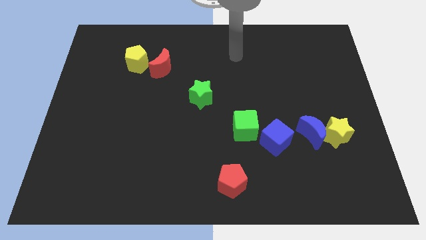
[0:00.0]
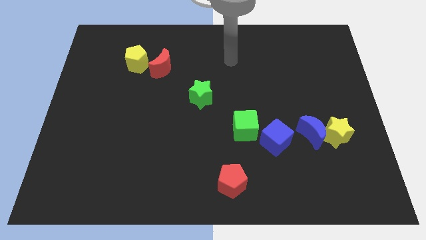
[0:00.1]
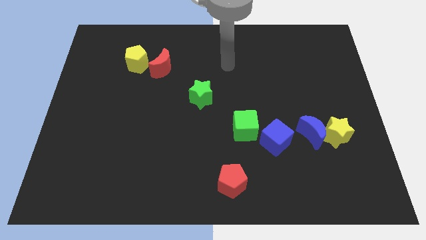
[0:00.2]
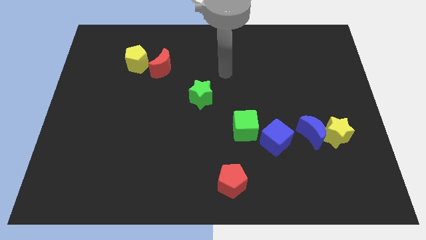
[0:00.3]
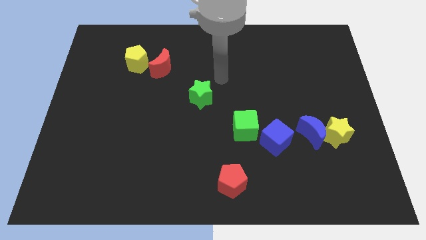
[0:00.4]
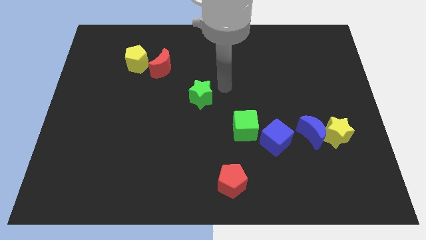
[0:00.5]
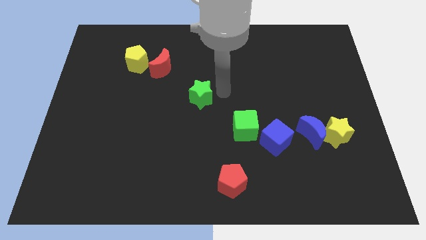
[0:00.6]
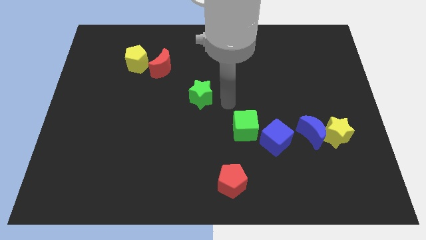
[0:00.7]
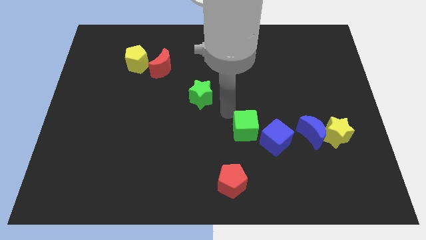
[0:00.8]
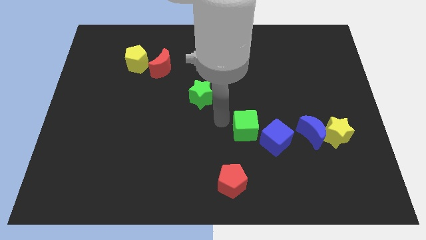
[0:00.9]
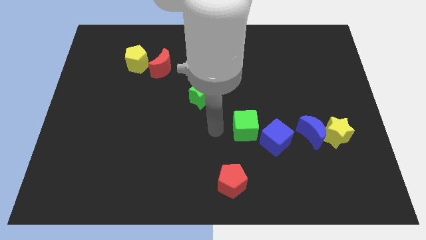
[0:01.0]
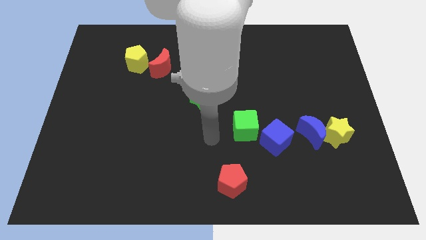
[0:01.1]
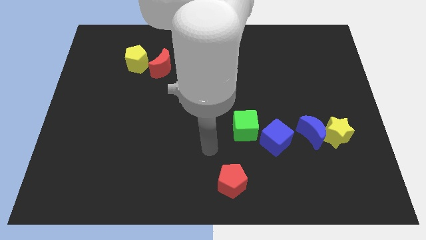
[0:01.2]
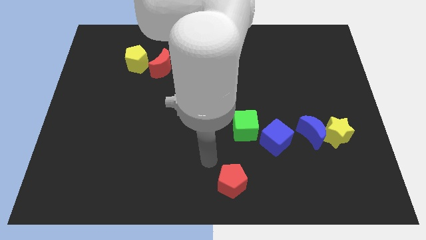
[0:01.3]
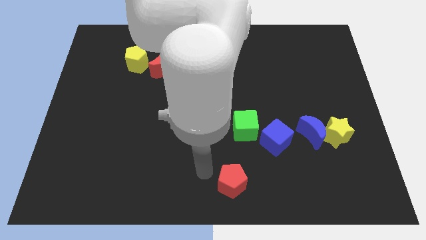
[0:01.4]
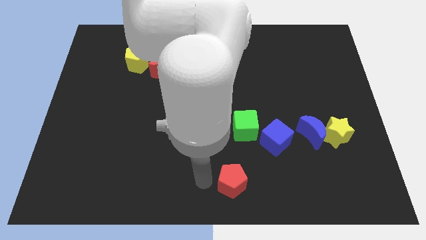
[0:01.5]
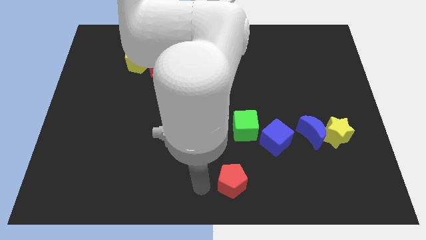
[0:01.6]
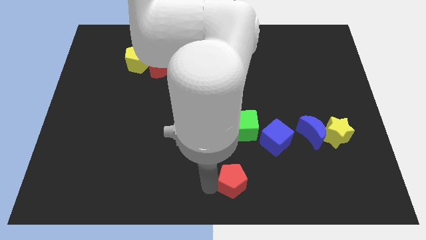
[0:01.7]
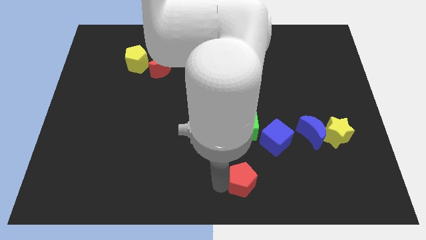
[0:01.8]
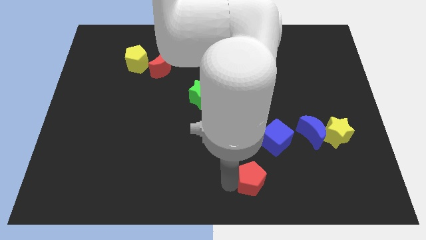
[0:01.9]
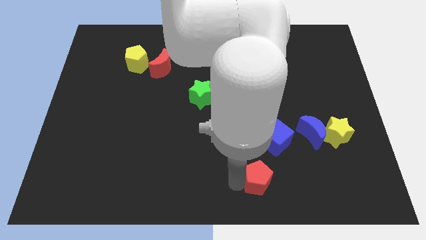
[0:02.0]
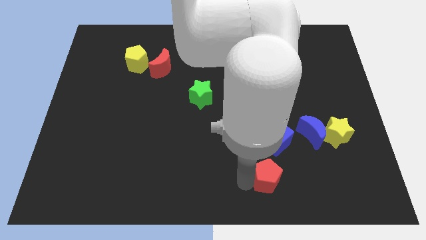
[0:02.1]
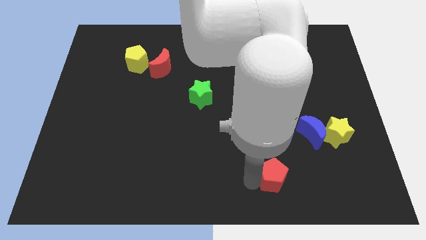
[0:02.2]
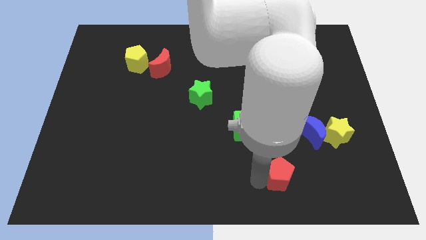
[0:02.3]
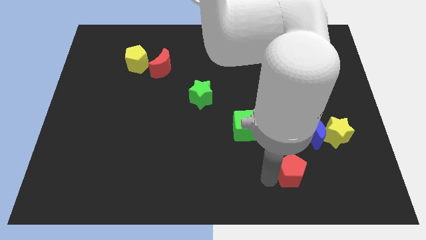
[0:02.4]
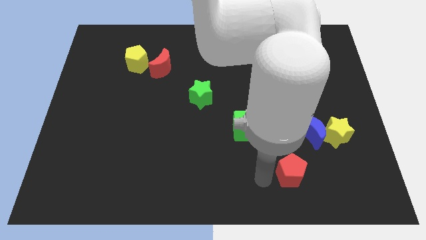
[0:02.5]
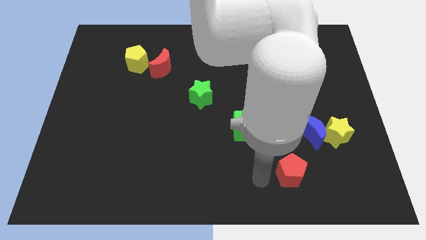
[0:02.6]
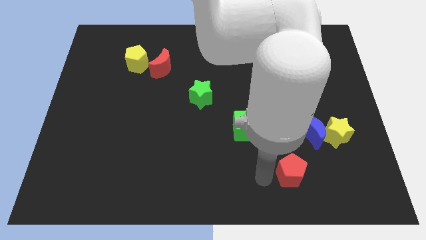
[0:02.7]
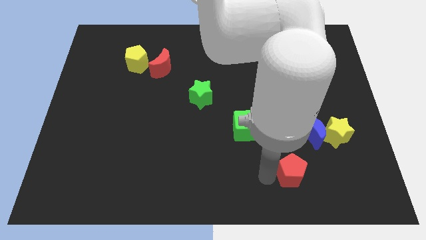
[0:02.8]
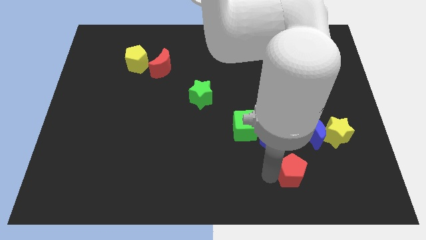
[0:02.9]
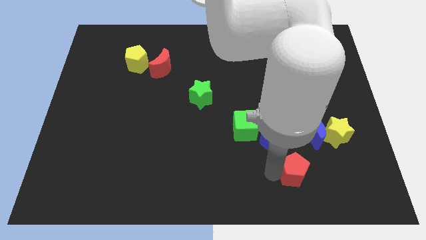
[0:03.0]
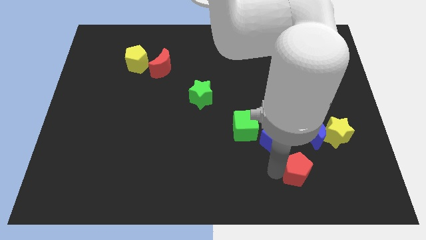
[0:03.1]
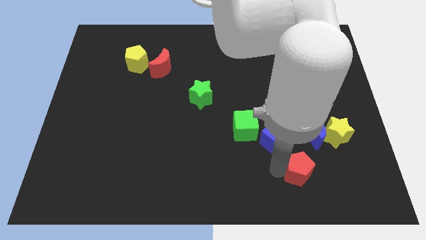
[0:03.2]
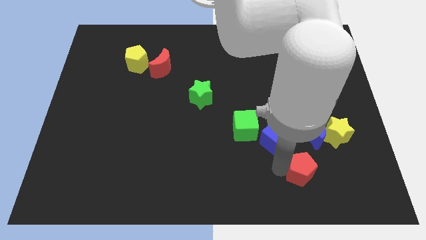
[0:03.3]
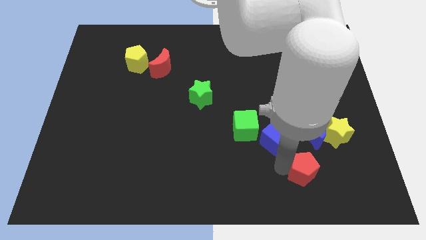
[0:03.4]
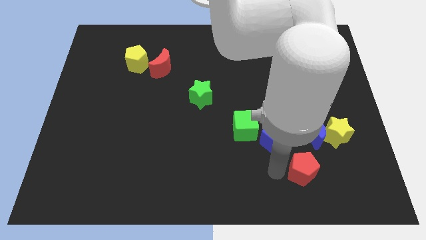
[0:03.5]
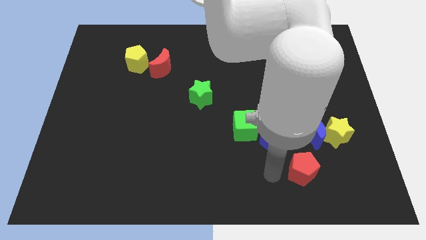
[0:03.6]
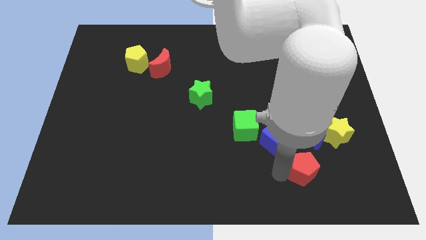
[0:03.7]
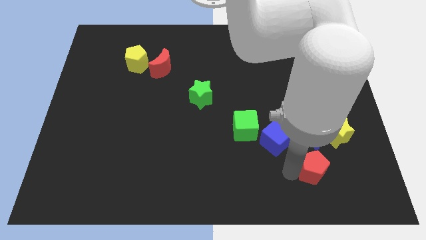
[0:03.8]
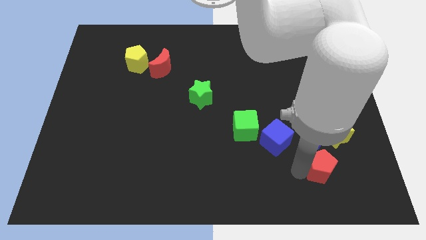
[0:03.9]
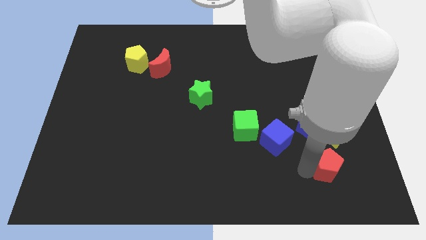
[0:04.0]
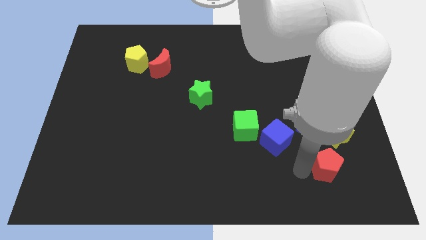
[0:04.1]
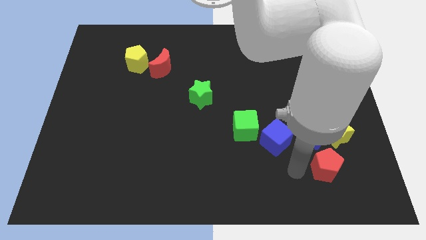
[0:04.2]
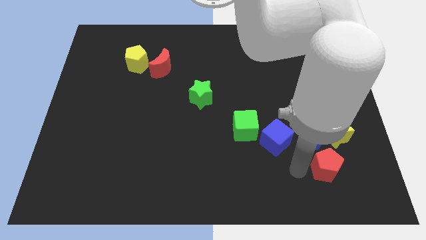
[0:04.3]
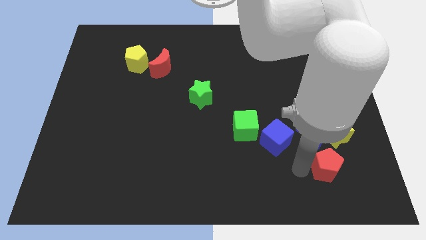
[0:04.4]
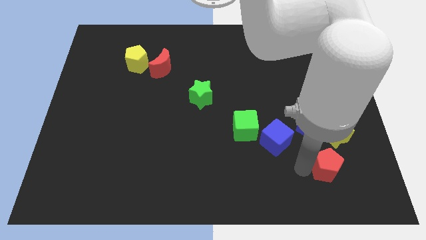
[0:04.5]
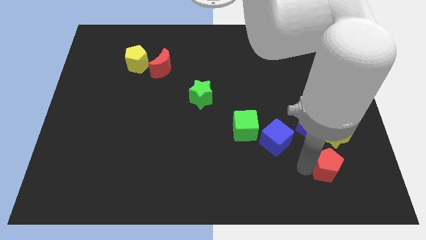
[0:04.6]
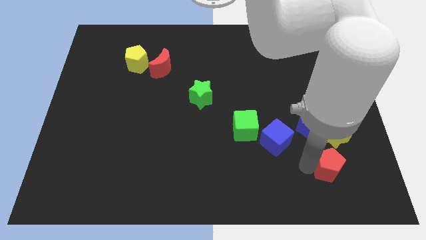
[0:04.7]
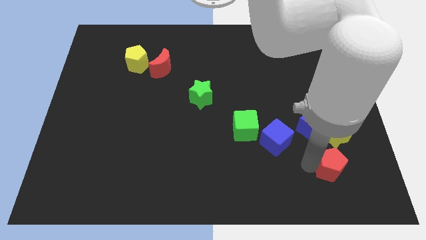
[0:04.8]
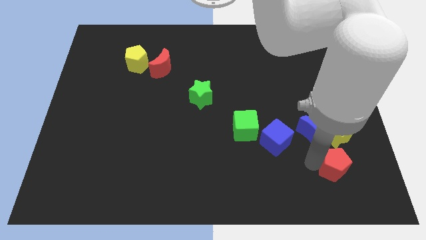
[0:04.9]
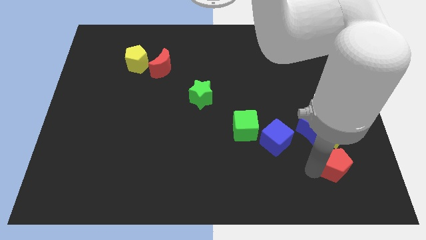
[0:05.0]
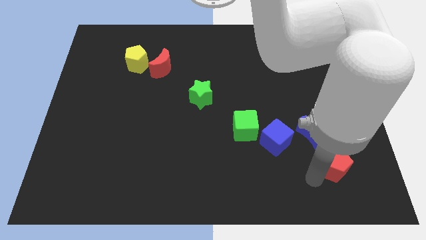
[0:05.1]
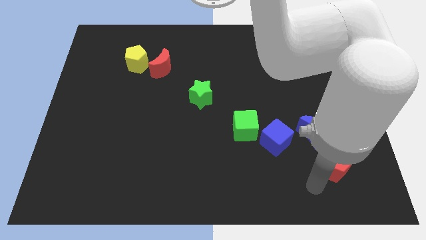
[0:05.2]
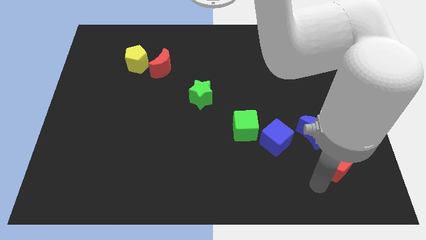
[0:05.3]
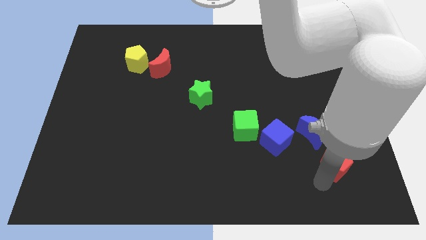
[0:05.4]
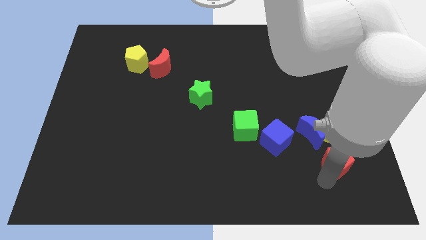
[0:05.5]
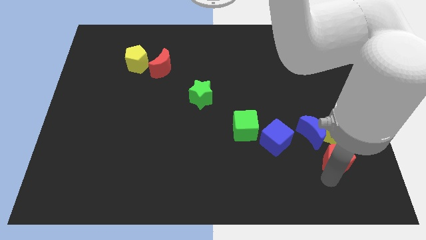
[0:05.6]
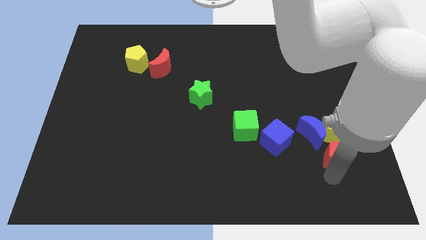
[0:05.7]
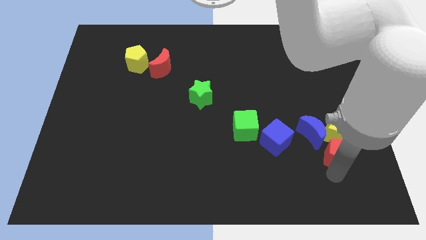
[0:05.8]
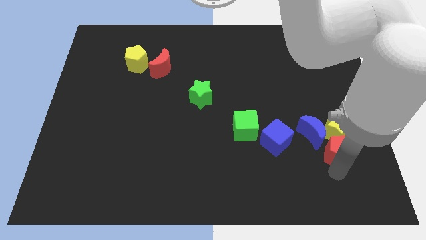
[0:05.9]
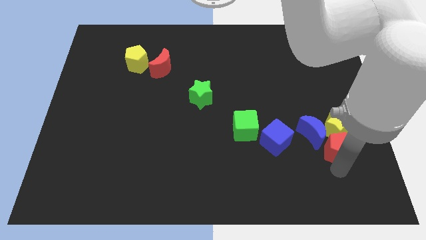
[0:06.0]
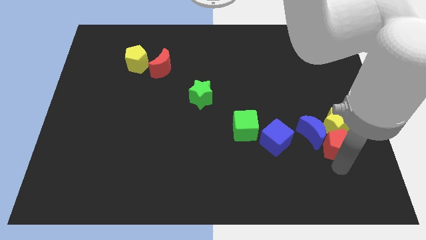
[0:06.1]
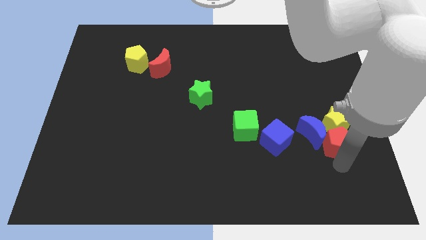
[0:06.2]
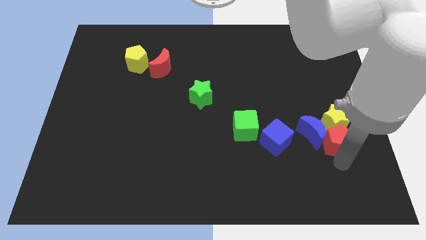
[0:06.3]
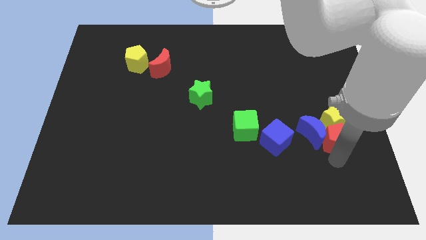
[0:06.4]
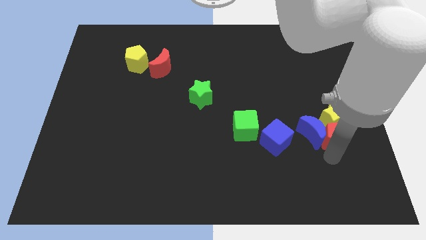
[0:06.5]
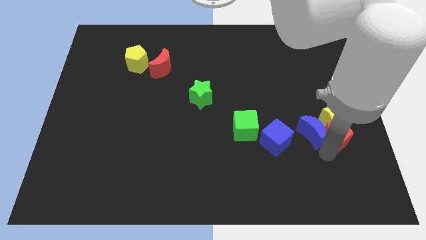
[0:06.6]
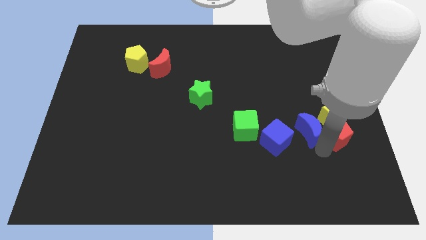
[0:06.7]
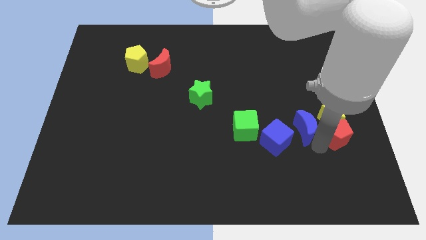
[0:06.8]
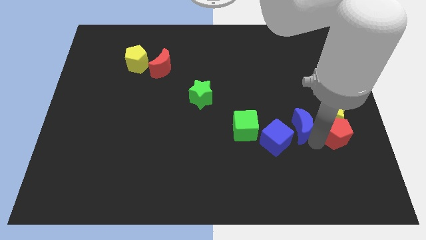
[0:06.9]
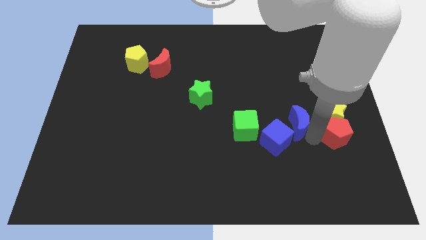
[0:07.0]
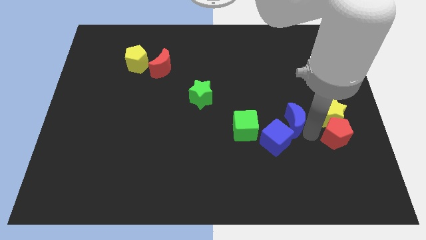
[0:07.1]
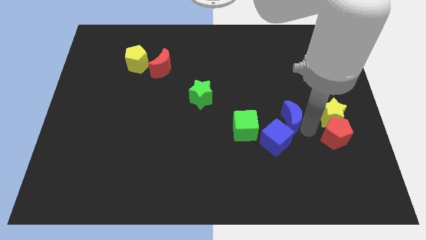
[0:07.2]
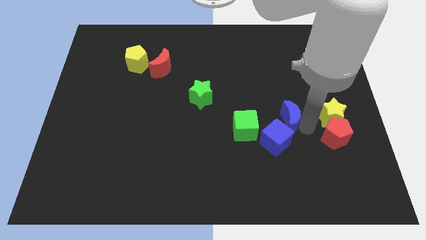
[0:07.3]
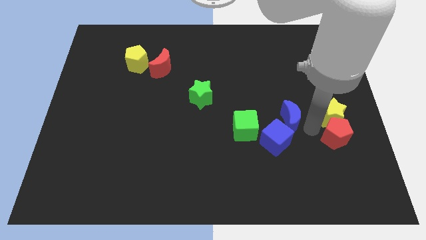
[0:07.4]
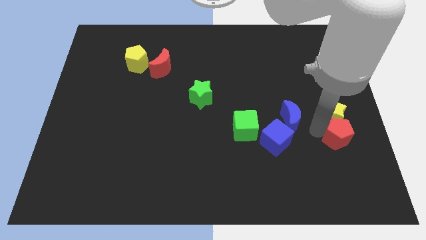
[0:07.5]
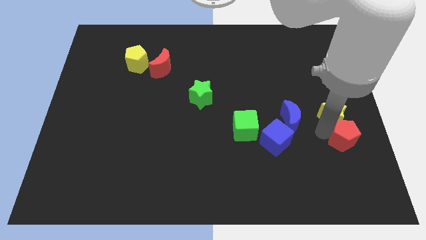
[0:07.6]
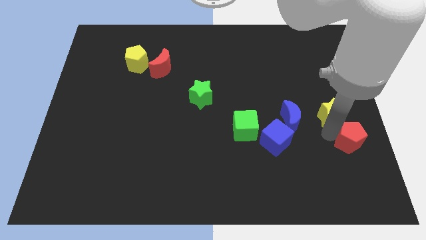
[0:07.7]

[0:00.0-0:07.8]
push the red pentagon to the right side

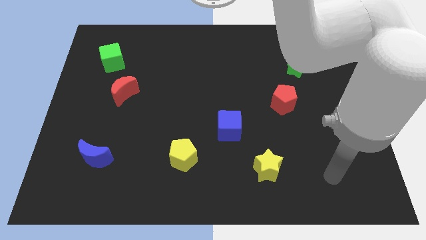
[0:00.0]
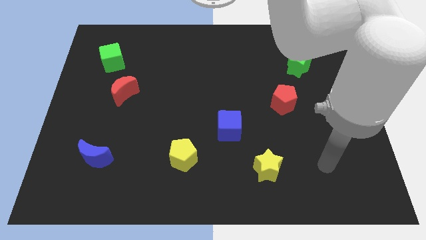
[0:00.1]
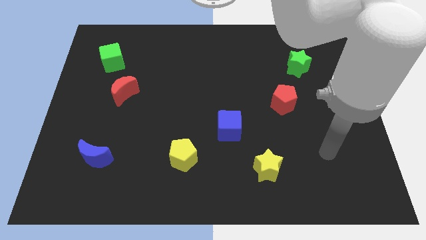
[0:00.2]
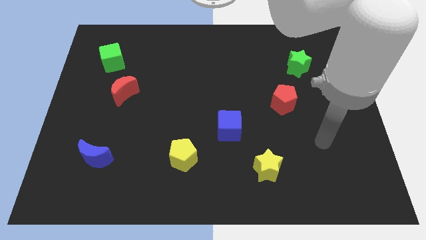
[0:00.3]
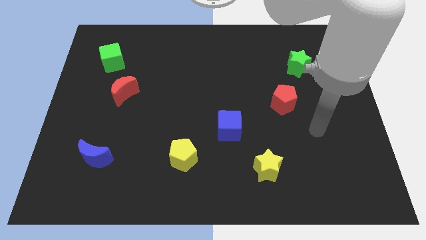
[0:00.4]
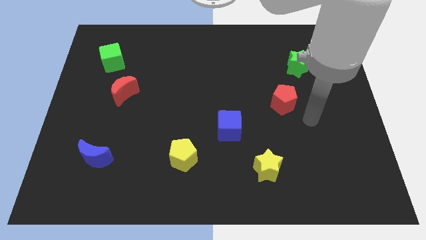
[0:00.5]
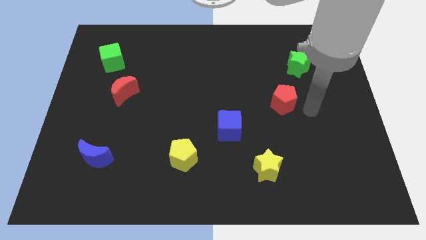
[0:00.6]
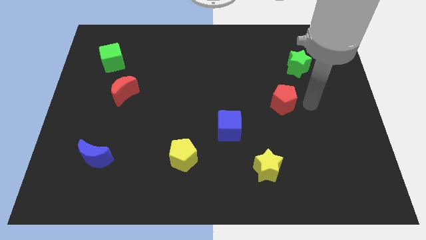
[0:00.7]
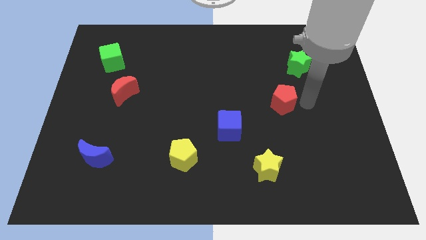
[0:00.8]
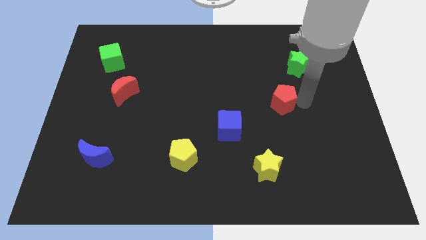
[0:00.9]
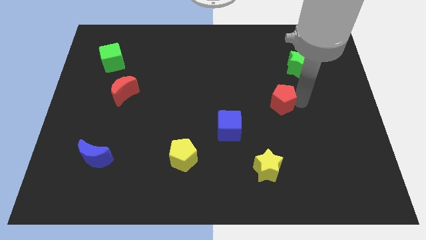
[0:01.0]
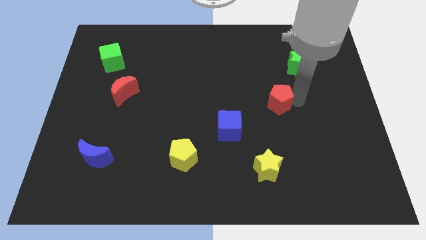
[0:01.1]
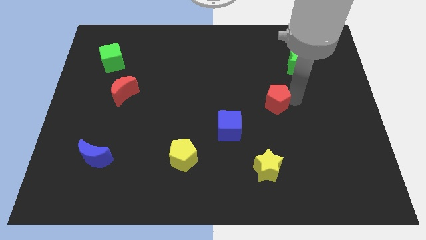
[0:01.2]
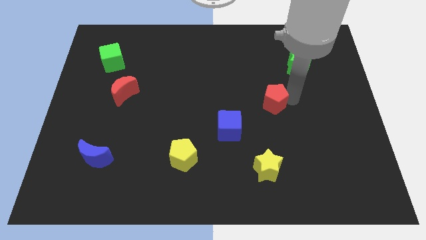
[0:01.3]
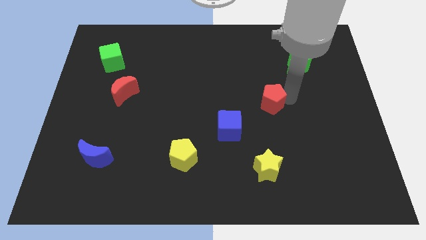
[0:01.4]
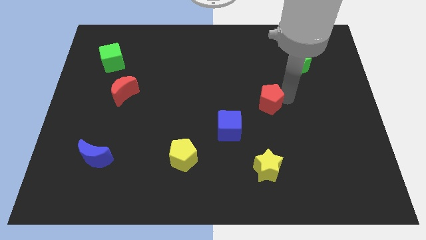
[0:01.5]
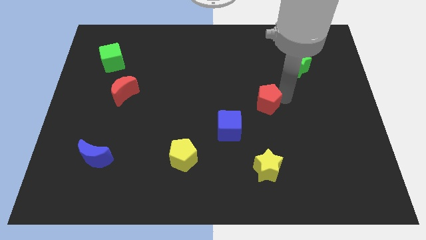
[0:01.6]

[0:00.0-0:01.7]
push the red pentagon to the center of the board
